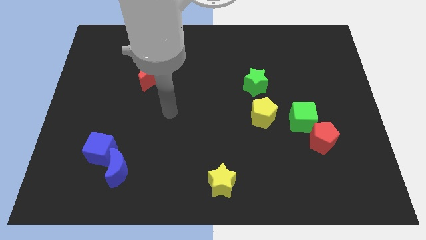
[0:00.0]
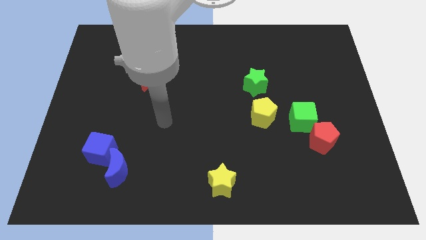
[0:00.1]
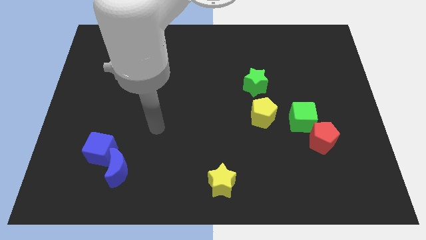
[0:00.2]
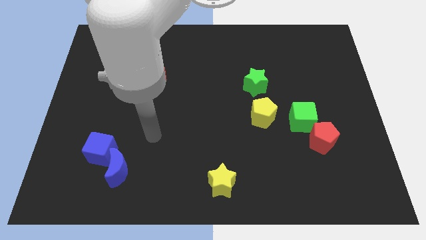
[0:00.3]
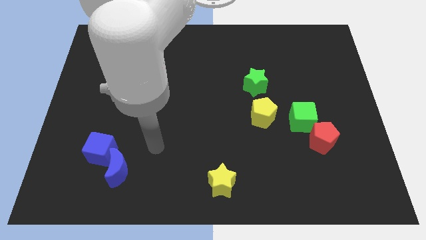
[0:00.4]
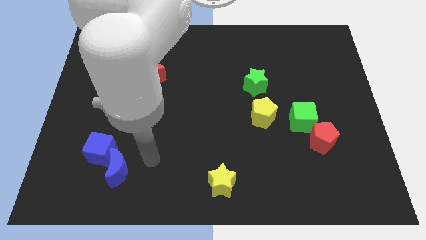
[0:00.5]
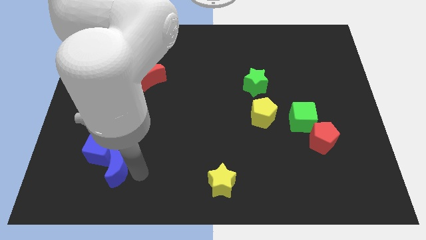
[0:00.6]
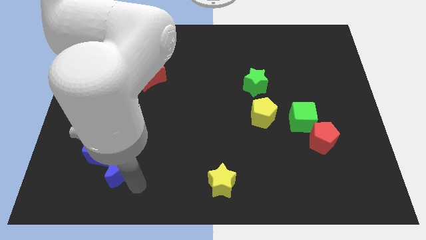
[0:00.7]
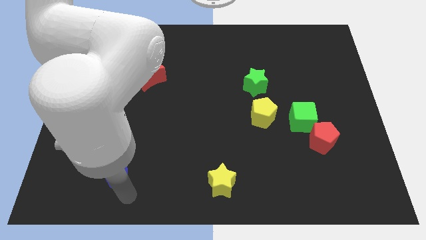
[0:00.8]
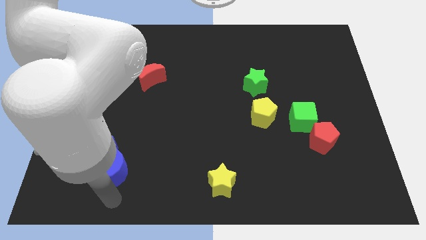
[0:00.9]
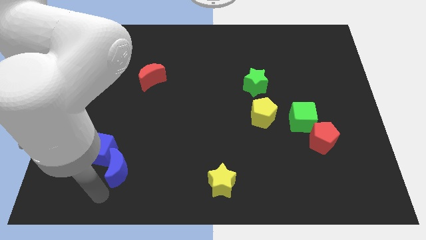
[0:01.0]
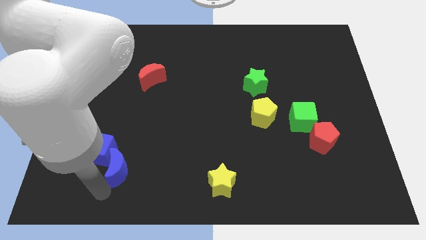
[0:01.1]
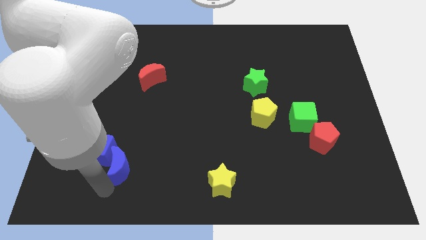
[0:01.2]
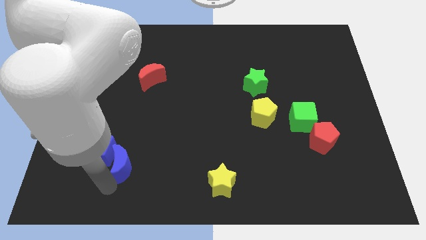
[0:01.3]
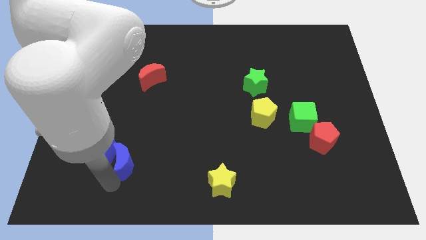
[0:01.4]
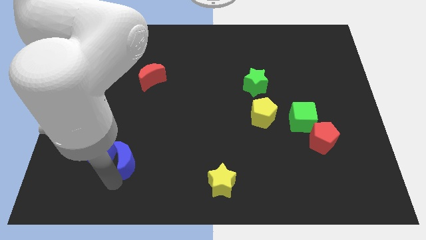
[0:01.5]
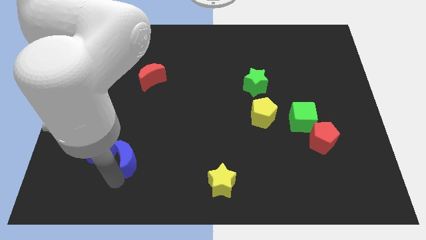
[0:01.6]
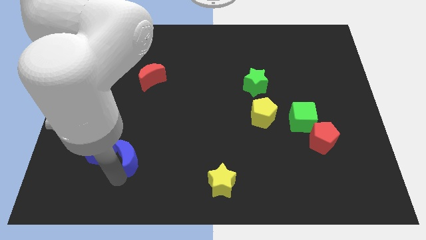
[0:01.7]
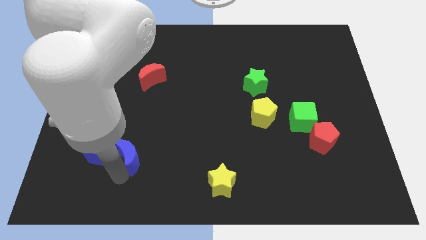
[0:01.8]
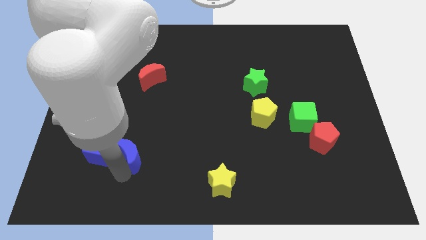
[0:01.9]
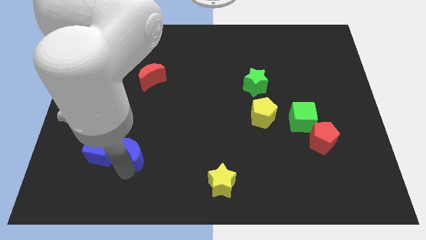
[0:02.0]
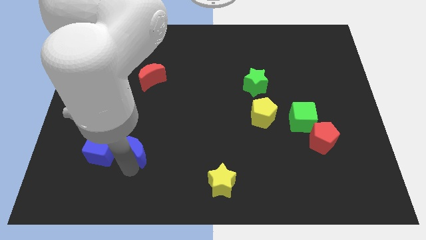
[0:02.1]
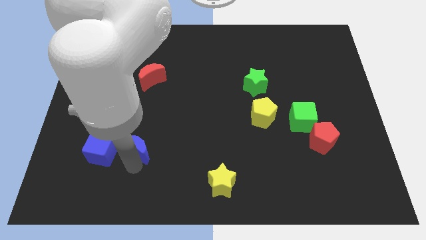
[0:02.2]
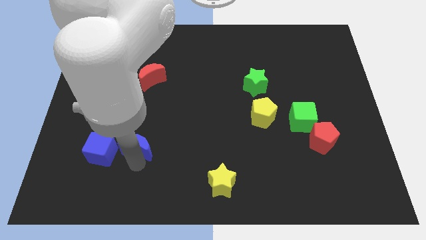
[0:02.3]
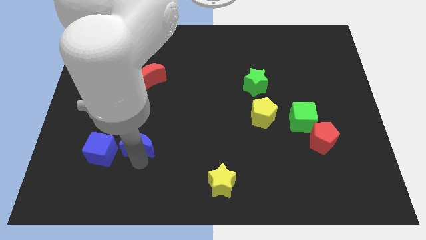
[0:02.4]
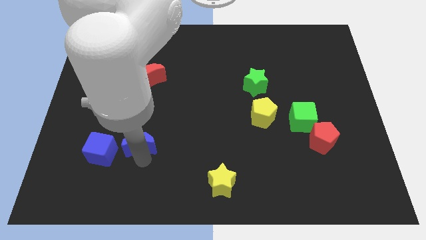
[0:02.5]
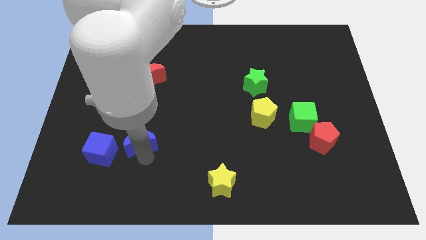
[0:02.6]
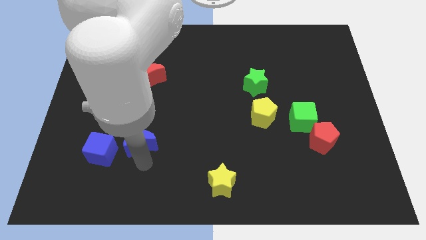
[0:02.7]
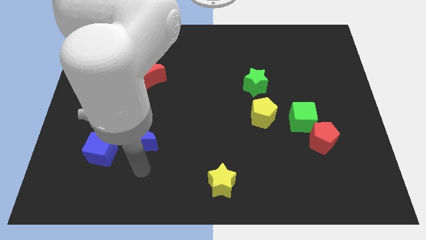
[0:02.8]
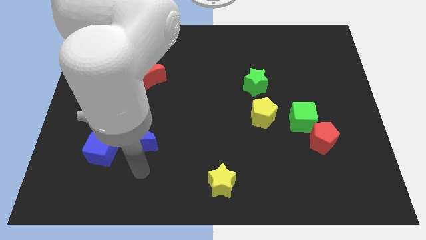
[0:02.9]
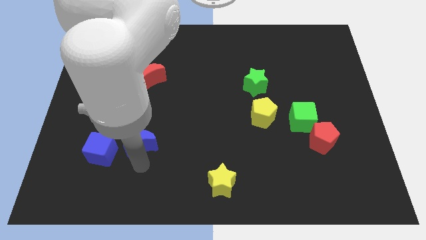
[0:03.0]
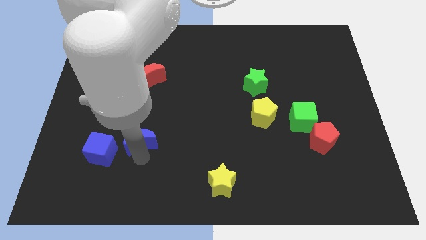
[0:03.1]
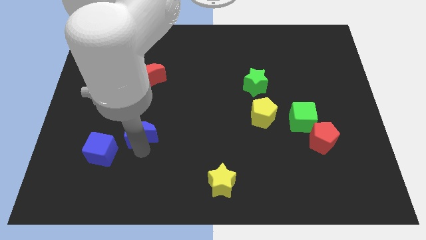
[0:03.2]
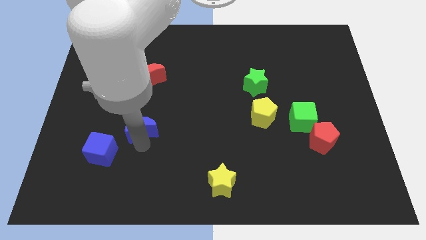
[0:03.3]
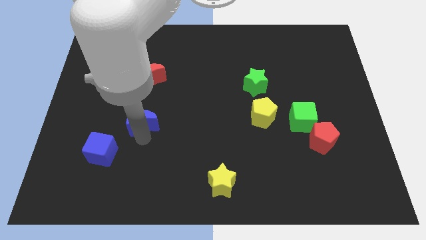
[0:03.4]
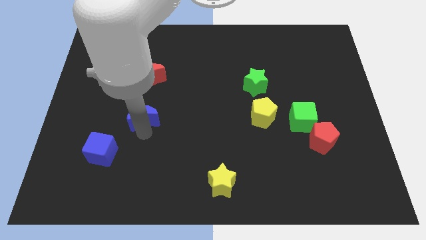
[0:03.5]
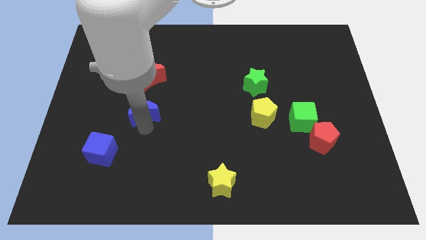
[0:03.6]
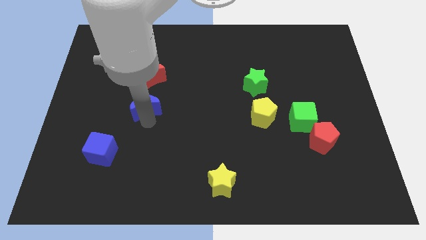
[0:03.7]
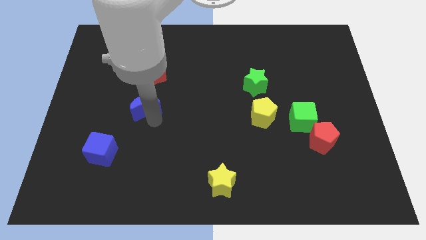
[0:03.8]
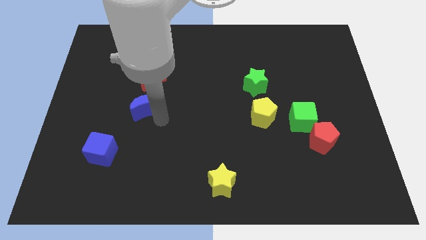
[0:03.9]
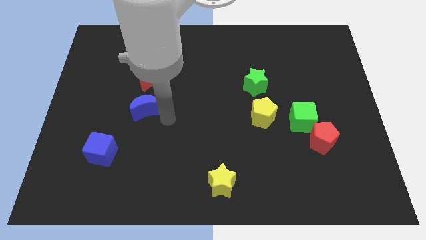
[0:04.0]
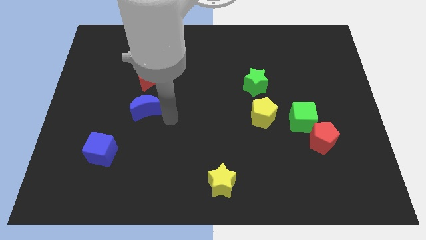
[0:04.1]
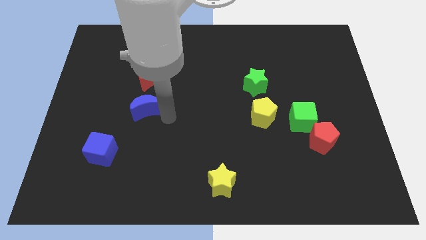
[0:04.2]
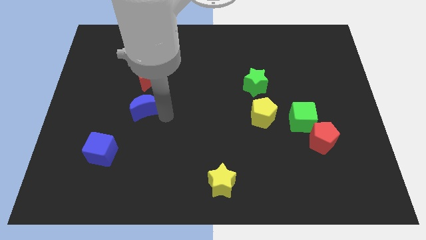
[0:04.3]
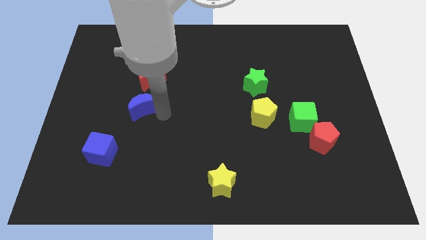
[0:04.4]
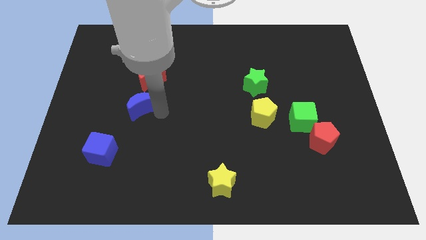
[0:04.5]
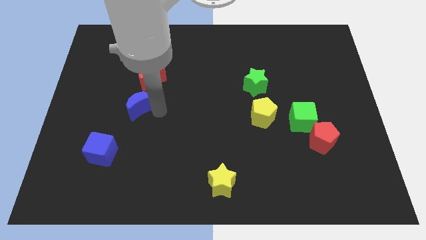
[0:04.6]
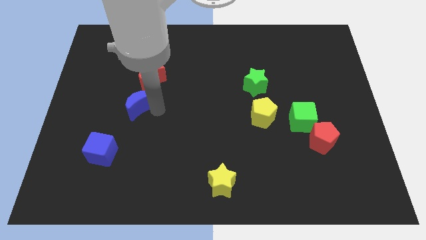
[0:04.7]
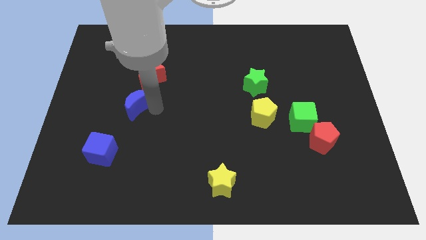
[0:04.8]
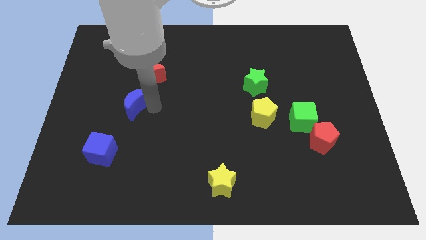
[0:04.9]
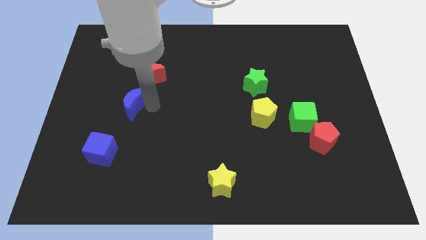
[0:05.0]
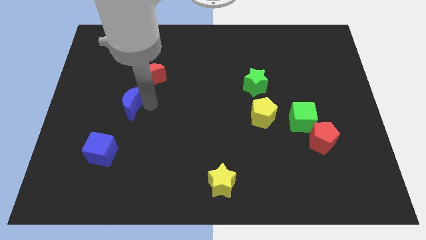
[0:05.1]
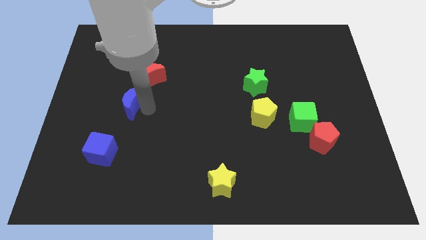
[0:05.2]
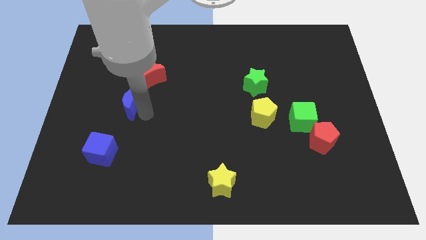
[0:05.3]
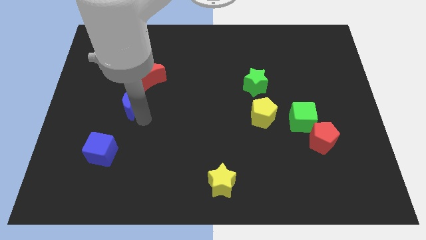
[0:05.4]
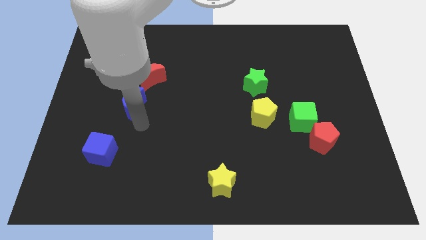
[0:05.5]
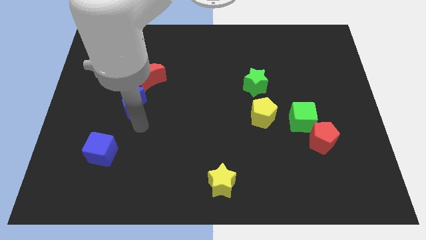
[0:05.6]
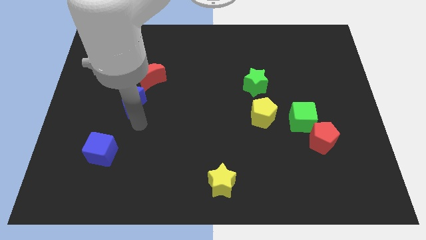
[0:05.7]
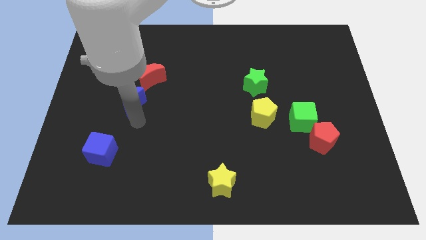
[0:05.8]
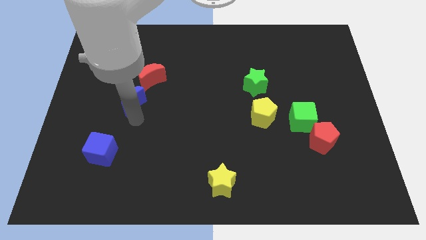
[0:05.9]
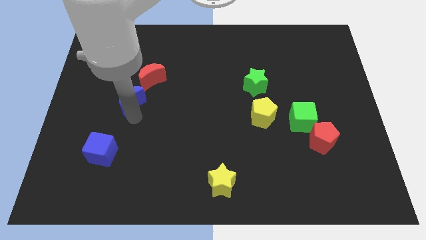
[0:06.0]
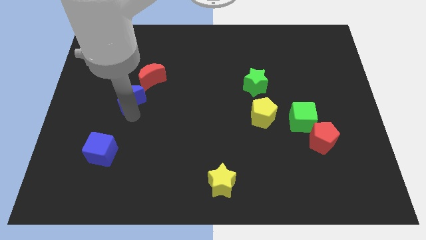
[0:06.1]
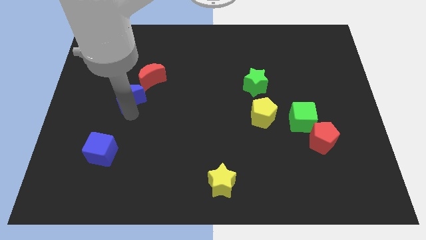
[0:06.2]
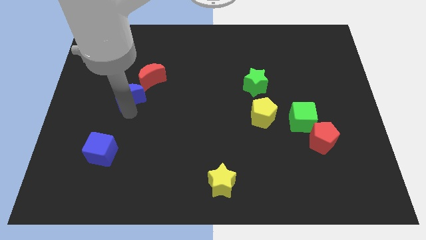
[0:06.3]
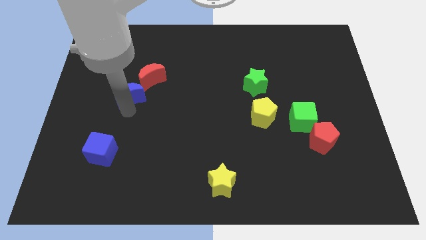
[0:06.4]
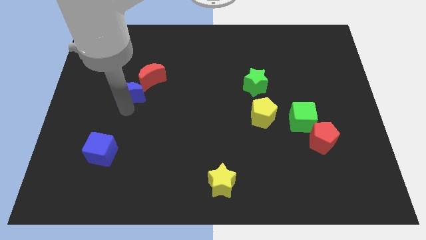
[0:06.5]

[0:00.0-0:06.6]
push the blue moon up

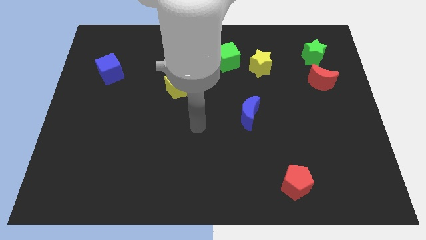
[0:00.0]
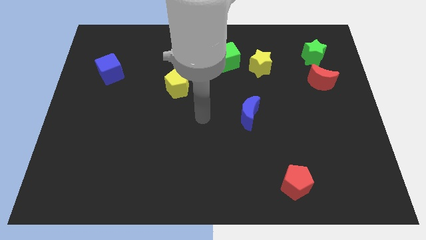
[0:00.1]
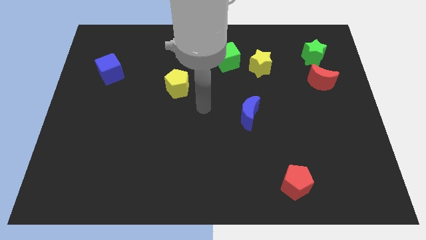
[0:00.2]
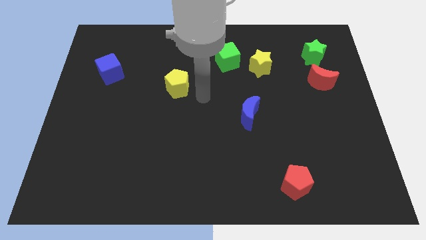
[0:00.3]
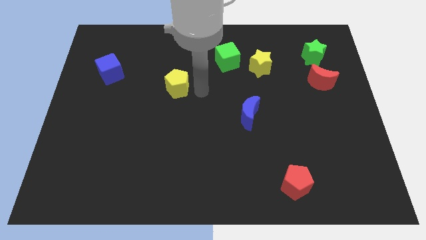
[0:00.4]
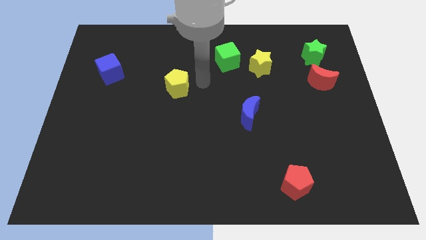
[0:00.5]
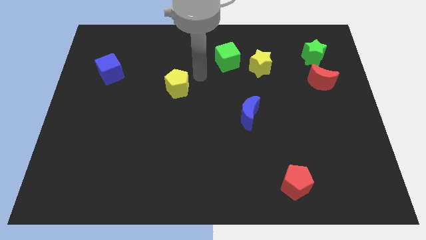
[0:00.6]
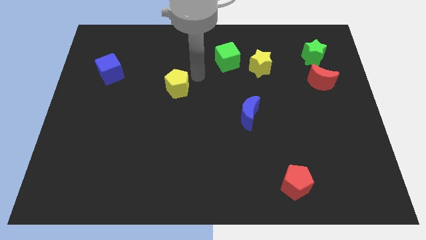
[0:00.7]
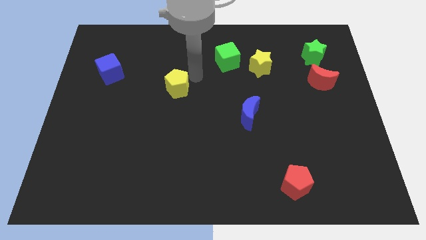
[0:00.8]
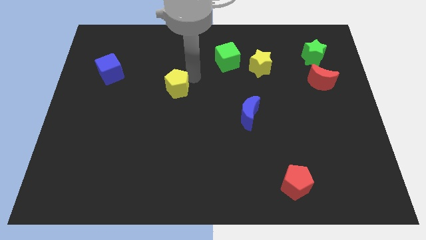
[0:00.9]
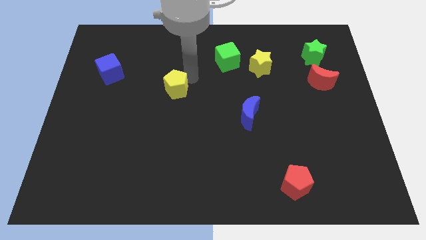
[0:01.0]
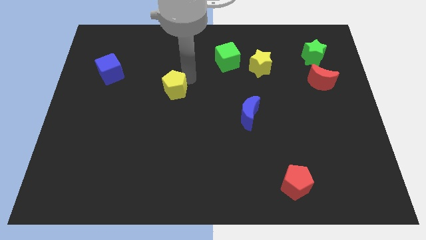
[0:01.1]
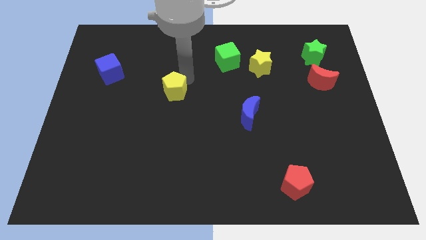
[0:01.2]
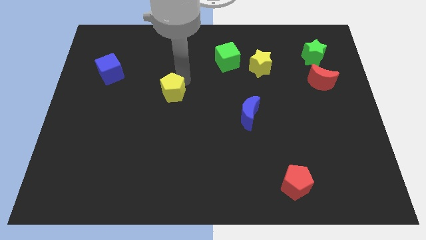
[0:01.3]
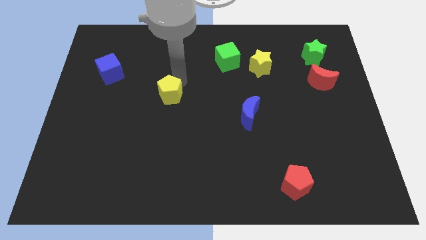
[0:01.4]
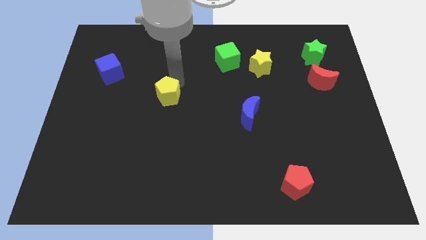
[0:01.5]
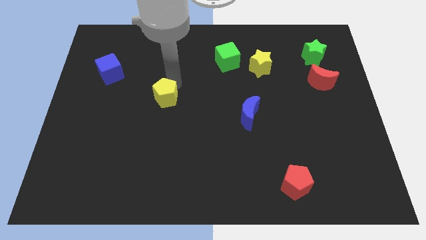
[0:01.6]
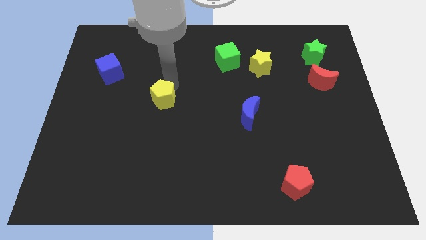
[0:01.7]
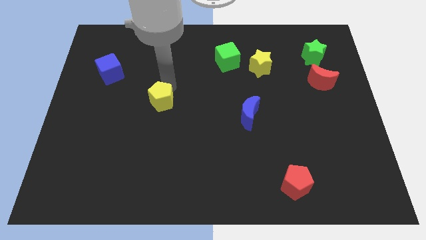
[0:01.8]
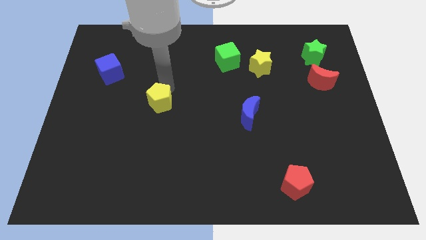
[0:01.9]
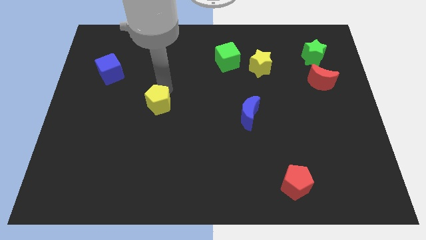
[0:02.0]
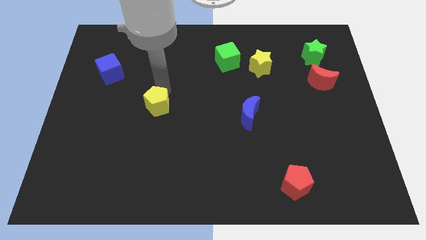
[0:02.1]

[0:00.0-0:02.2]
slightly push the yellow pentagon downwards and to the left diagonally
